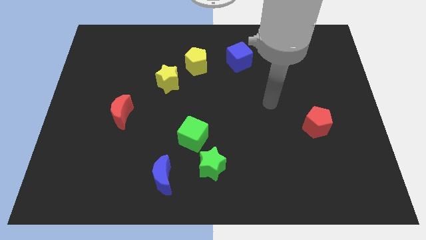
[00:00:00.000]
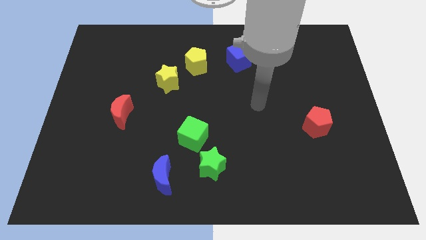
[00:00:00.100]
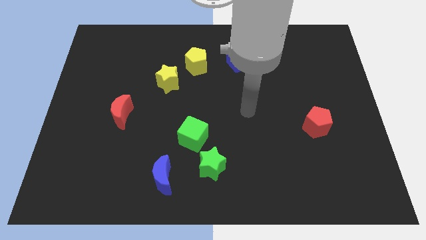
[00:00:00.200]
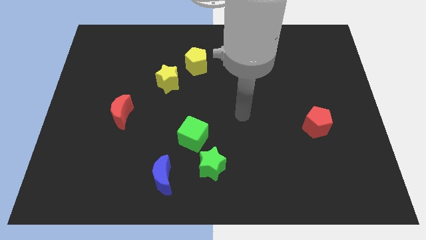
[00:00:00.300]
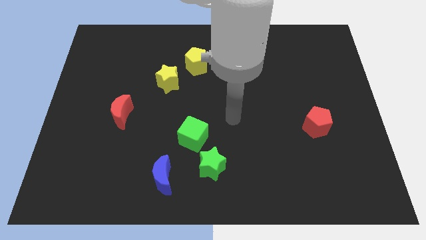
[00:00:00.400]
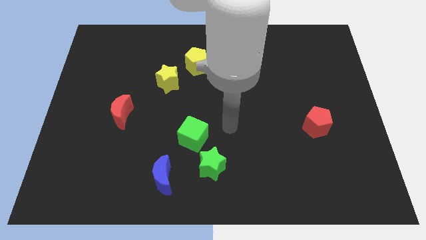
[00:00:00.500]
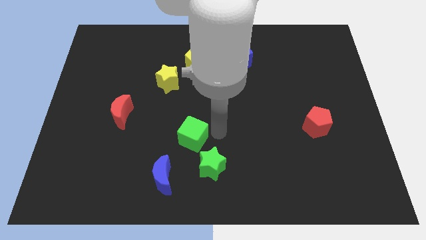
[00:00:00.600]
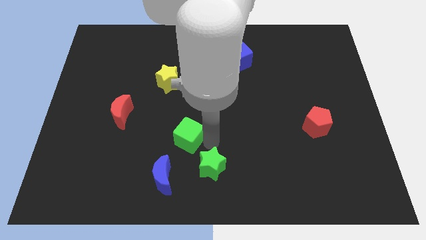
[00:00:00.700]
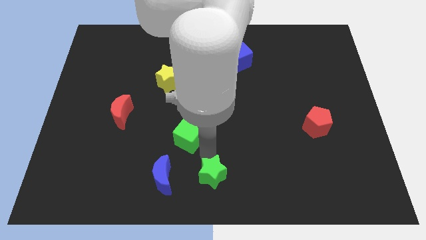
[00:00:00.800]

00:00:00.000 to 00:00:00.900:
pull the green cube apart from the green star

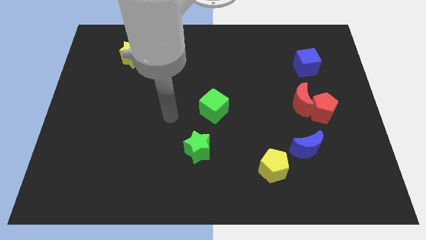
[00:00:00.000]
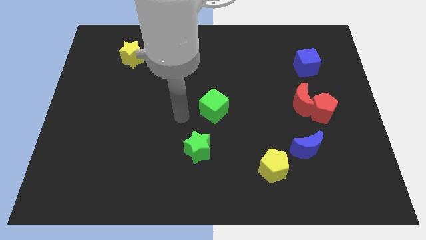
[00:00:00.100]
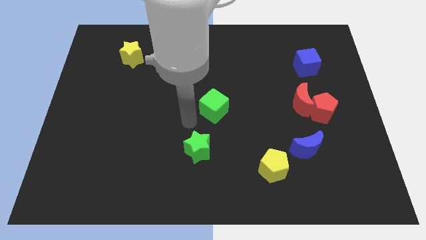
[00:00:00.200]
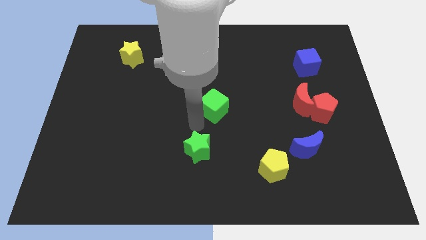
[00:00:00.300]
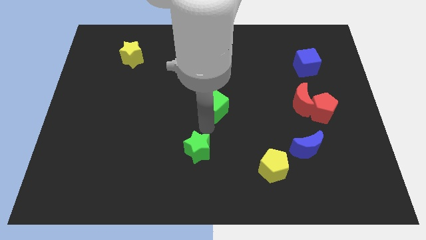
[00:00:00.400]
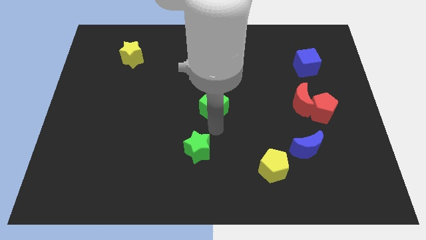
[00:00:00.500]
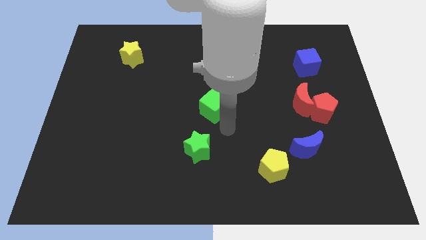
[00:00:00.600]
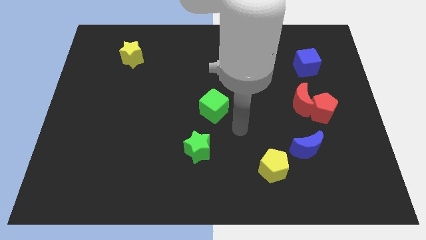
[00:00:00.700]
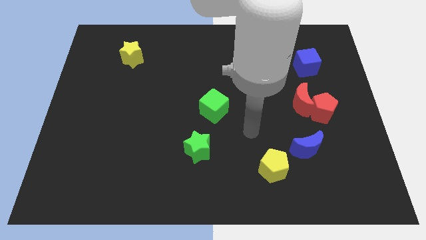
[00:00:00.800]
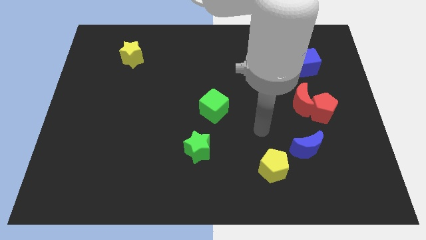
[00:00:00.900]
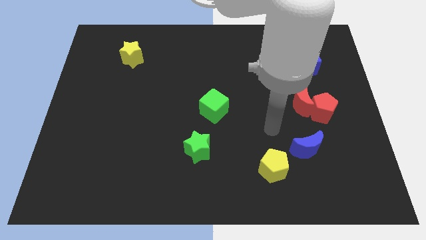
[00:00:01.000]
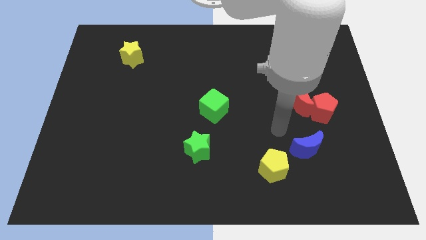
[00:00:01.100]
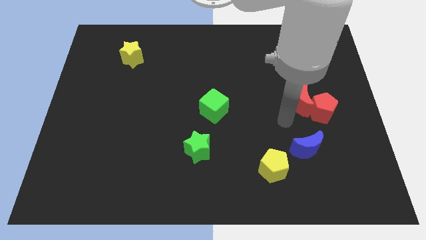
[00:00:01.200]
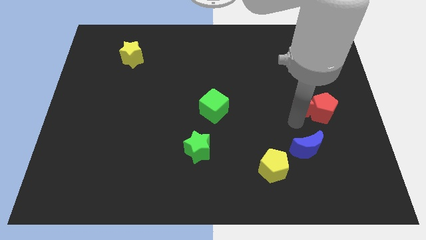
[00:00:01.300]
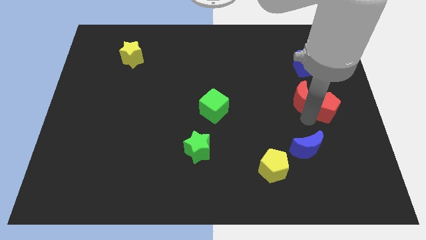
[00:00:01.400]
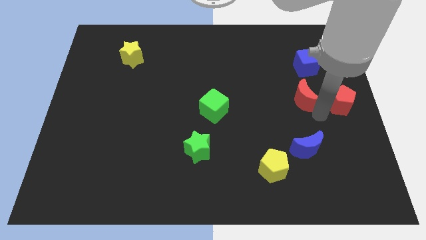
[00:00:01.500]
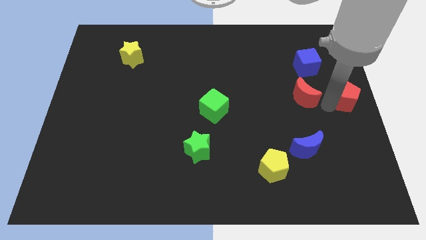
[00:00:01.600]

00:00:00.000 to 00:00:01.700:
pull the red moon apart from the red pentagon

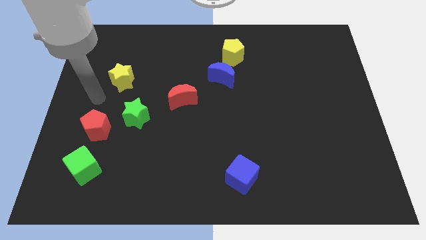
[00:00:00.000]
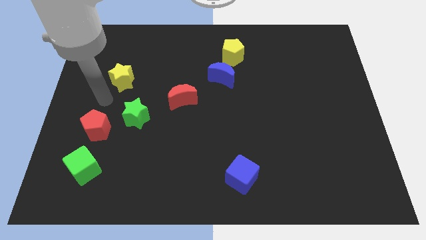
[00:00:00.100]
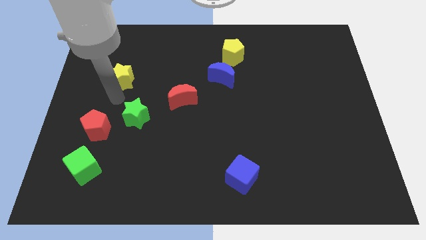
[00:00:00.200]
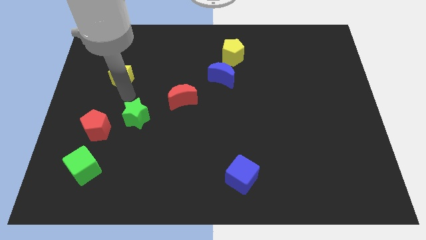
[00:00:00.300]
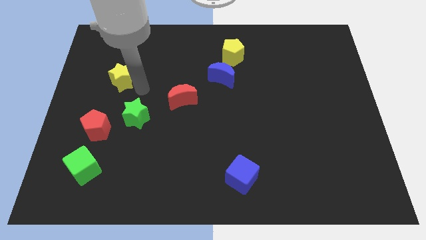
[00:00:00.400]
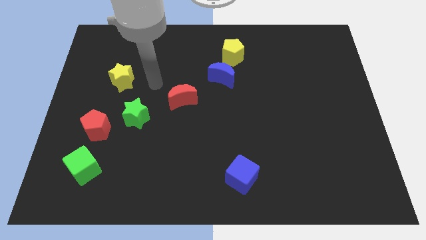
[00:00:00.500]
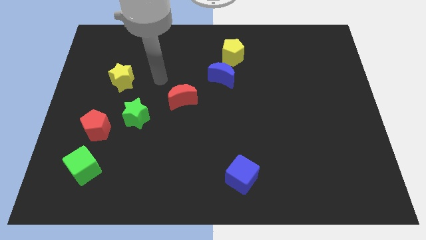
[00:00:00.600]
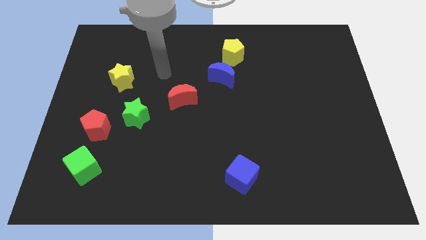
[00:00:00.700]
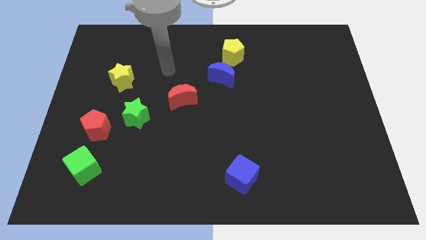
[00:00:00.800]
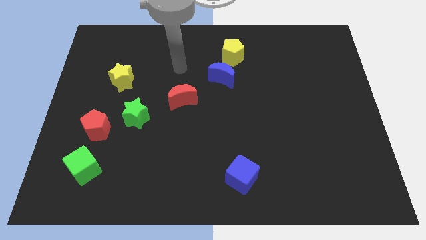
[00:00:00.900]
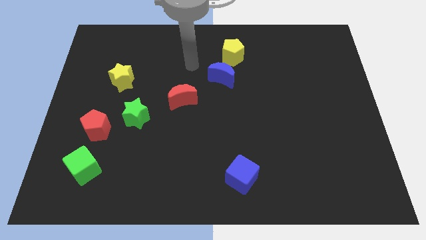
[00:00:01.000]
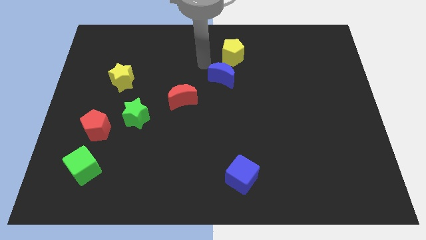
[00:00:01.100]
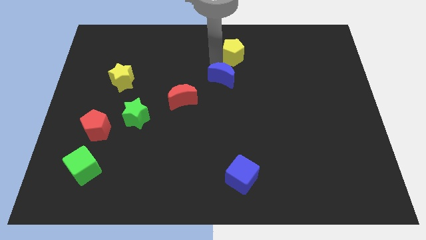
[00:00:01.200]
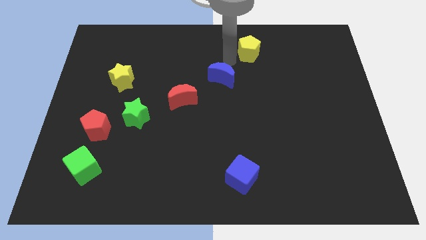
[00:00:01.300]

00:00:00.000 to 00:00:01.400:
move the blue moon away from the yellow pentagon

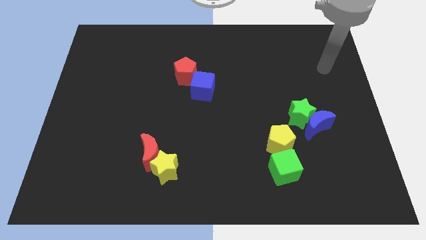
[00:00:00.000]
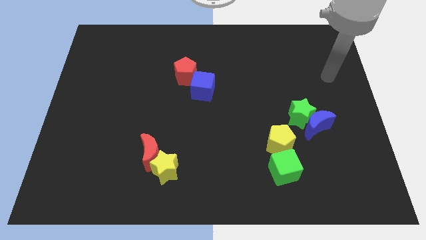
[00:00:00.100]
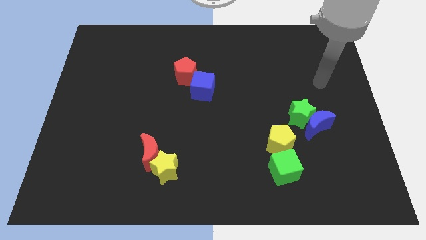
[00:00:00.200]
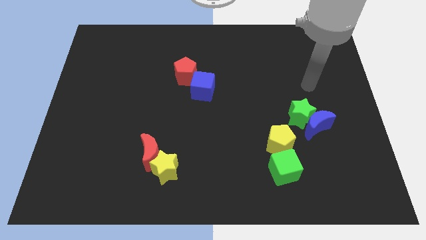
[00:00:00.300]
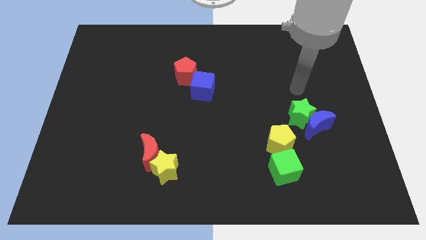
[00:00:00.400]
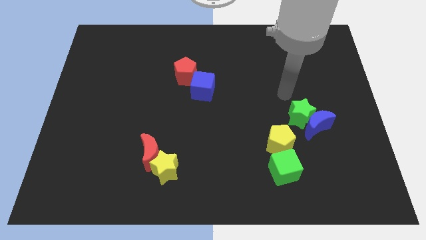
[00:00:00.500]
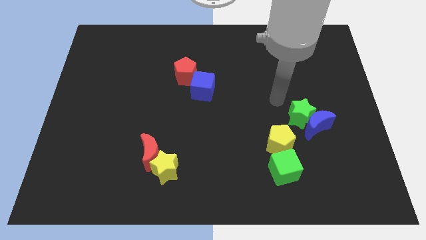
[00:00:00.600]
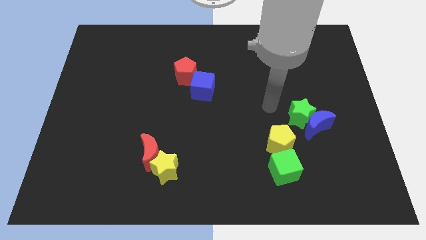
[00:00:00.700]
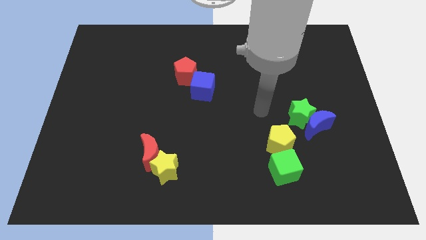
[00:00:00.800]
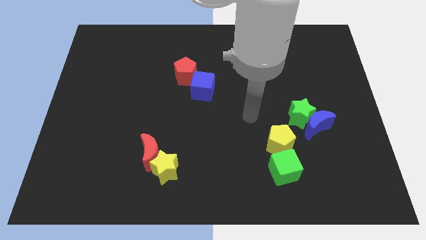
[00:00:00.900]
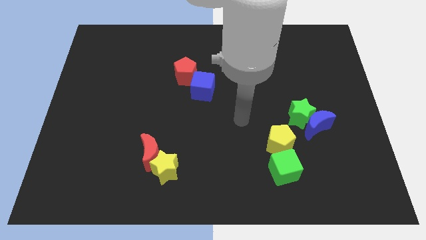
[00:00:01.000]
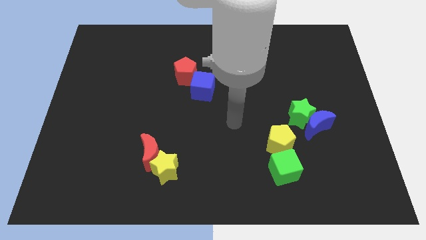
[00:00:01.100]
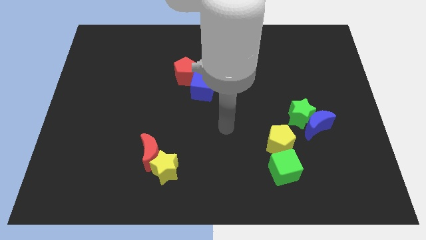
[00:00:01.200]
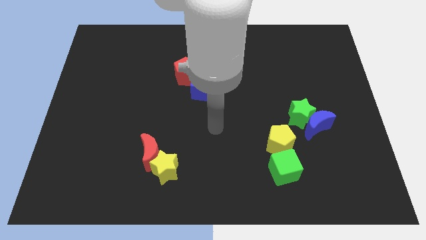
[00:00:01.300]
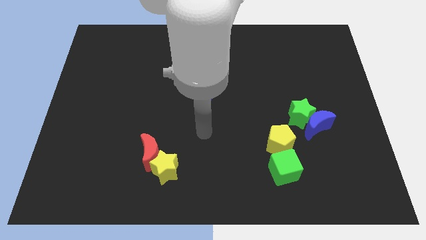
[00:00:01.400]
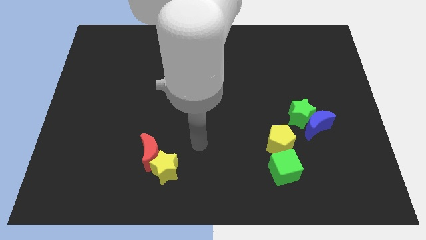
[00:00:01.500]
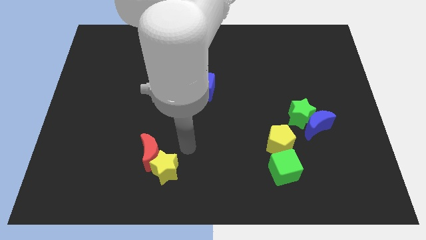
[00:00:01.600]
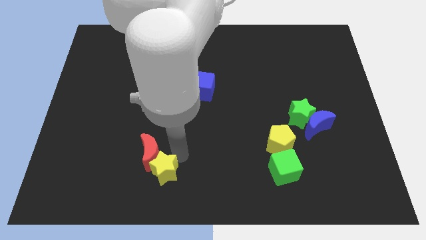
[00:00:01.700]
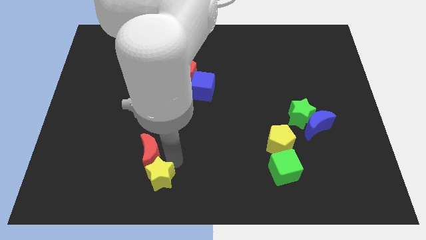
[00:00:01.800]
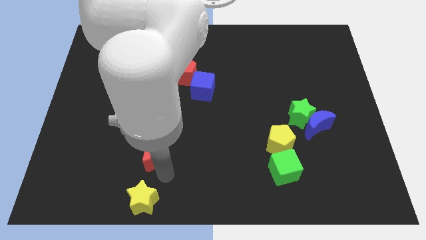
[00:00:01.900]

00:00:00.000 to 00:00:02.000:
separate the red moon from the yellow star

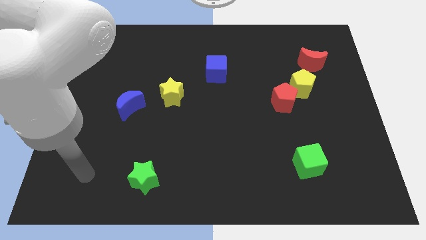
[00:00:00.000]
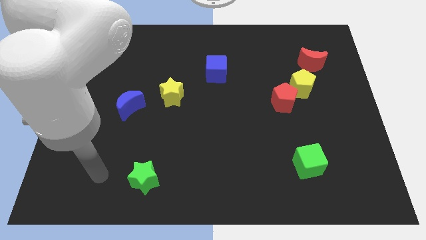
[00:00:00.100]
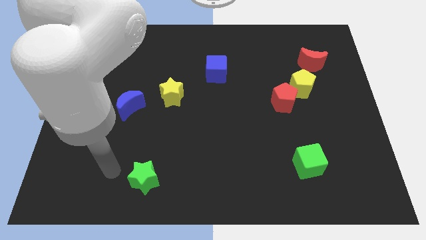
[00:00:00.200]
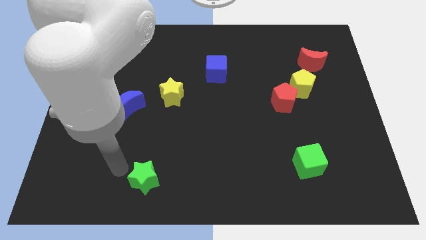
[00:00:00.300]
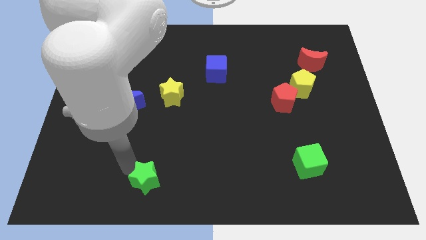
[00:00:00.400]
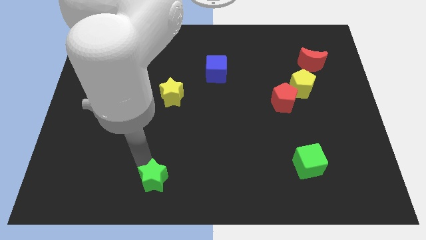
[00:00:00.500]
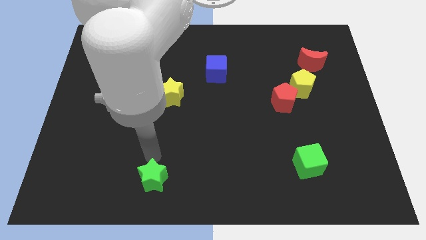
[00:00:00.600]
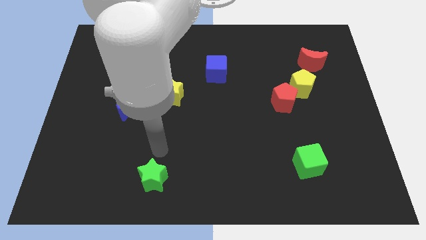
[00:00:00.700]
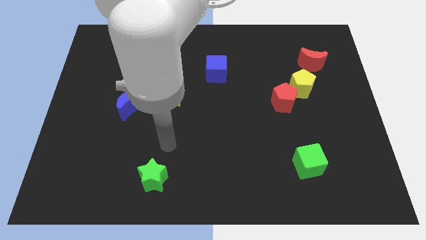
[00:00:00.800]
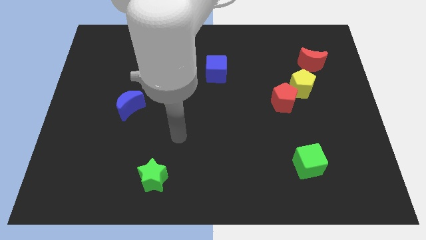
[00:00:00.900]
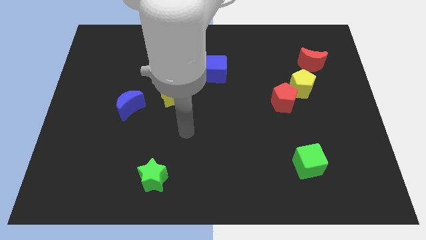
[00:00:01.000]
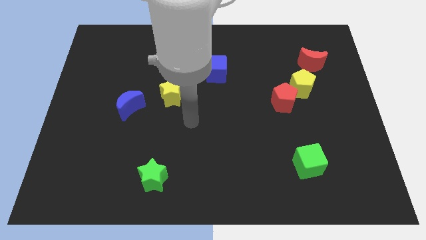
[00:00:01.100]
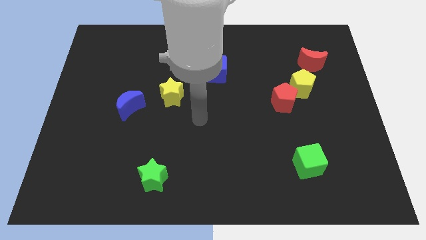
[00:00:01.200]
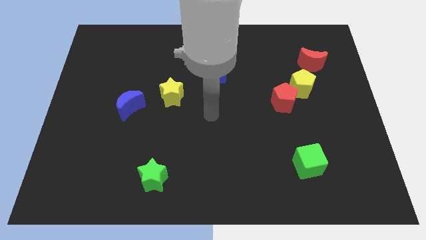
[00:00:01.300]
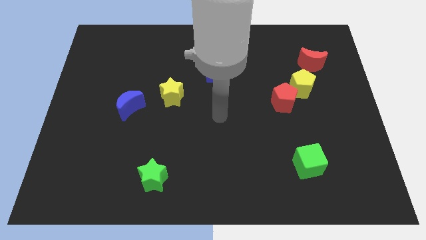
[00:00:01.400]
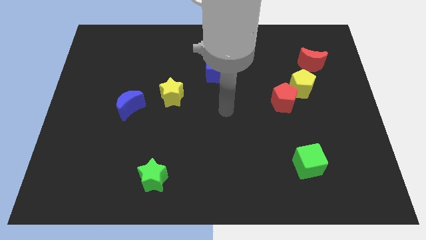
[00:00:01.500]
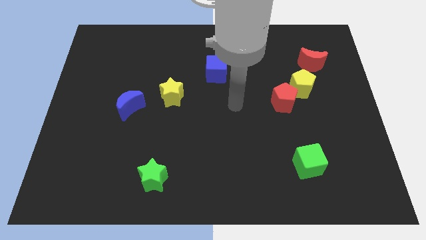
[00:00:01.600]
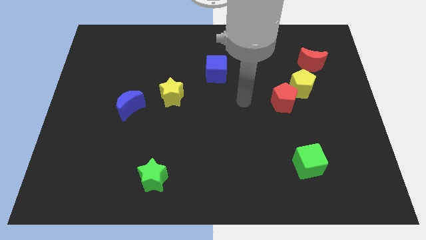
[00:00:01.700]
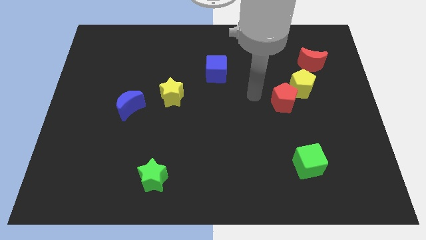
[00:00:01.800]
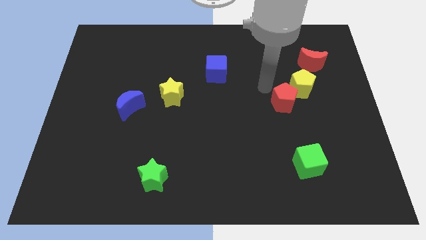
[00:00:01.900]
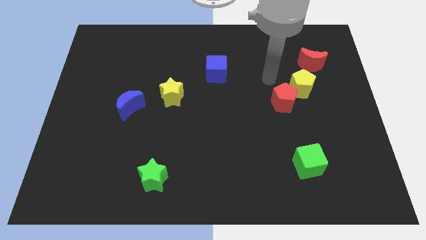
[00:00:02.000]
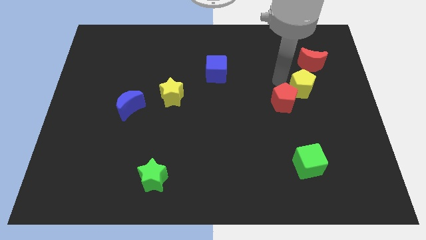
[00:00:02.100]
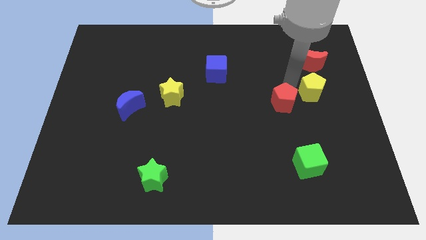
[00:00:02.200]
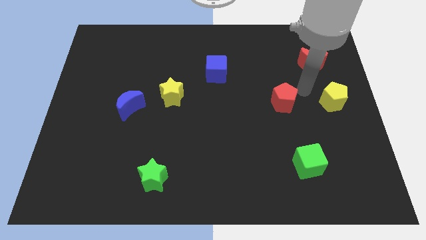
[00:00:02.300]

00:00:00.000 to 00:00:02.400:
pull the red pentagon apart from the yellow pentagon
